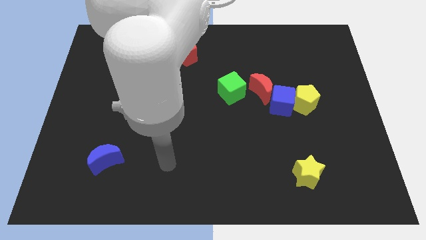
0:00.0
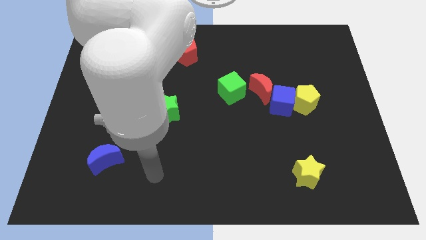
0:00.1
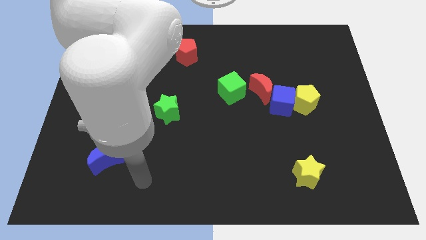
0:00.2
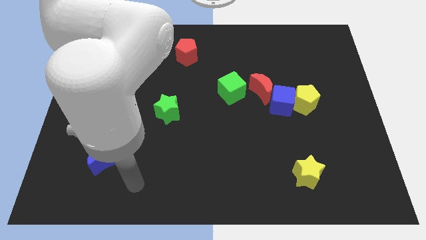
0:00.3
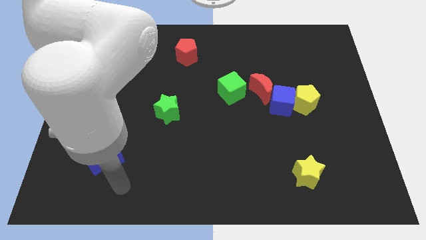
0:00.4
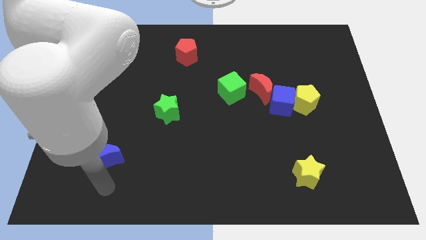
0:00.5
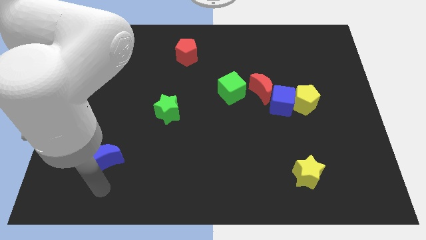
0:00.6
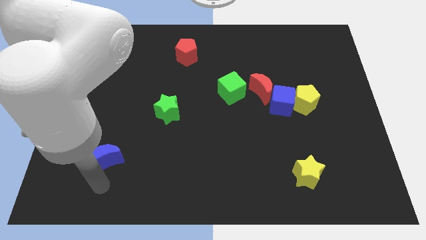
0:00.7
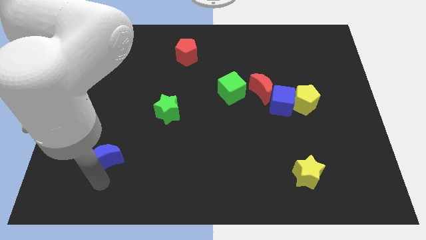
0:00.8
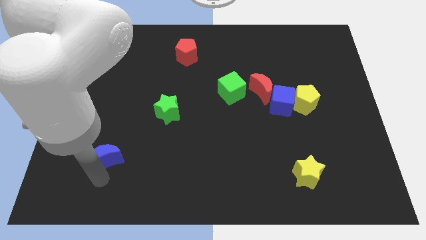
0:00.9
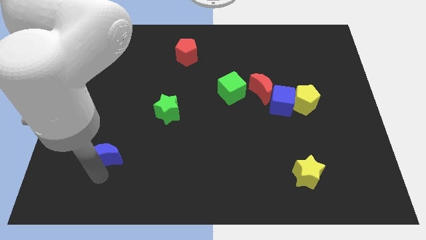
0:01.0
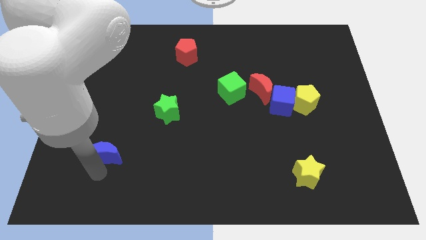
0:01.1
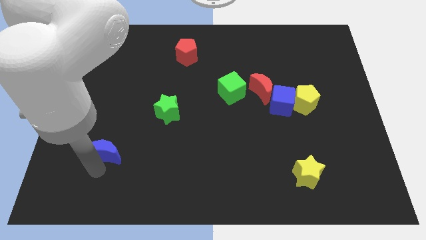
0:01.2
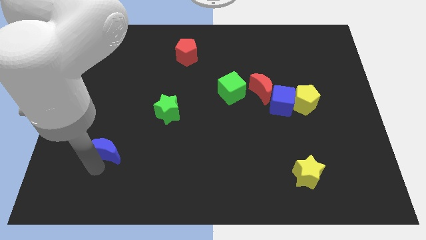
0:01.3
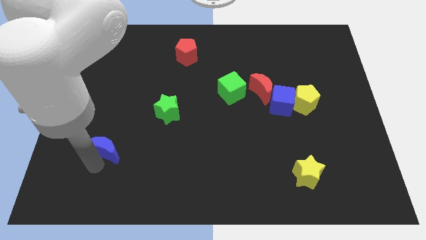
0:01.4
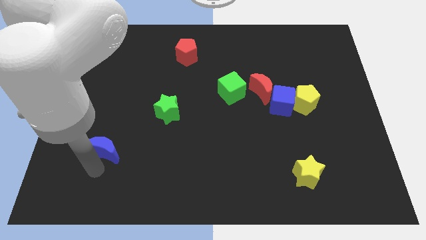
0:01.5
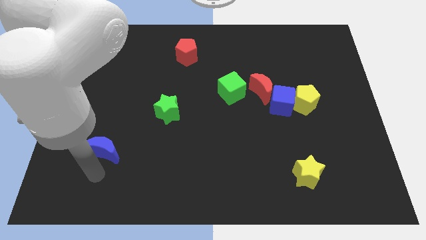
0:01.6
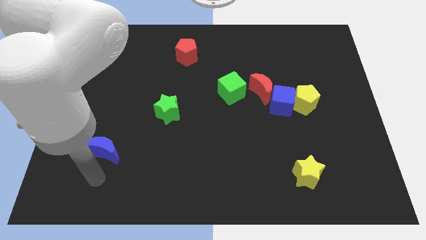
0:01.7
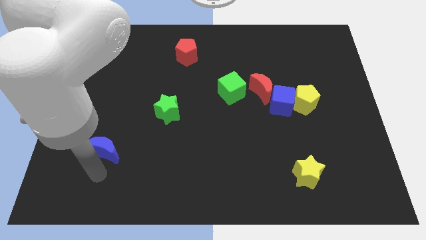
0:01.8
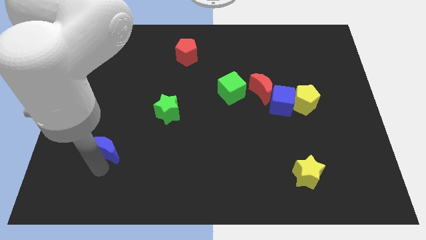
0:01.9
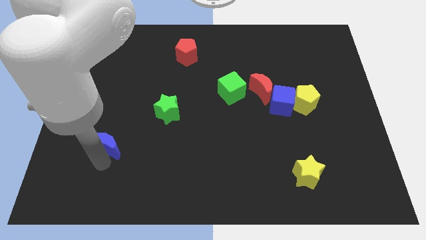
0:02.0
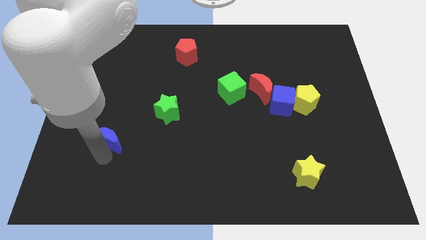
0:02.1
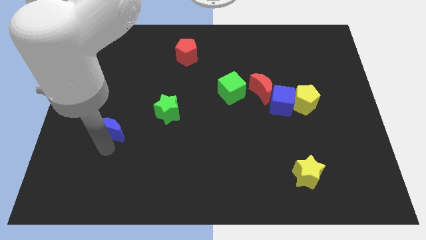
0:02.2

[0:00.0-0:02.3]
move the blue moon a little upwards

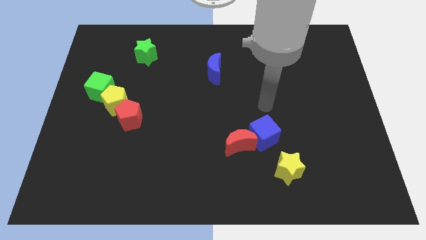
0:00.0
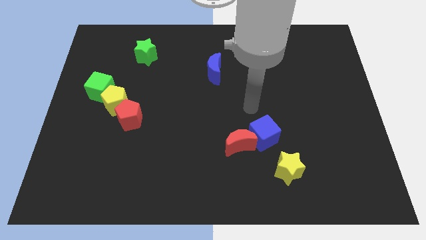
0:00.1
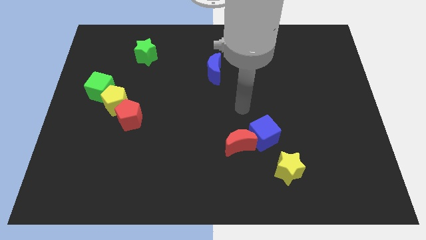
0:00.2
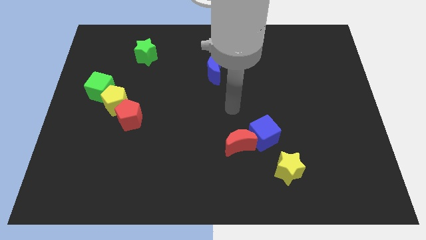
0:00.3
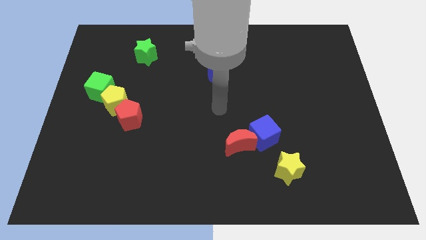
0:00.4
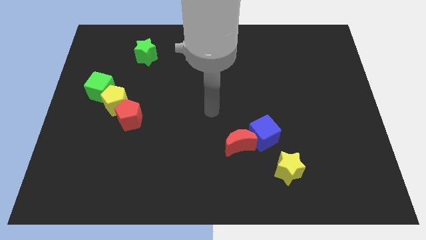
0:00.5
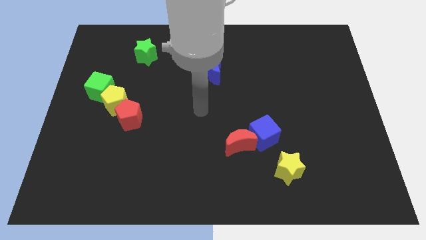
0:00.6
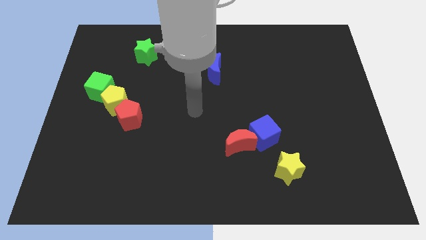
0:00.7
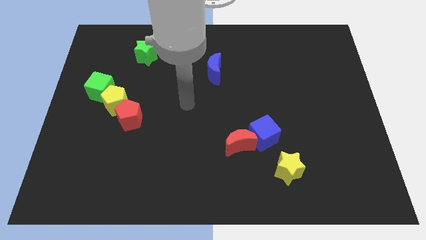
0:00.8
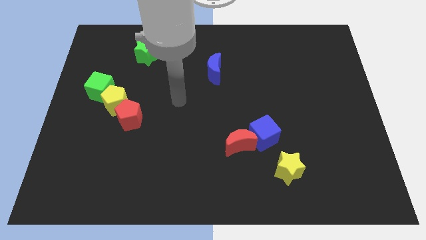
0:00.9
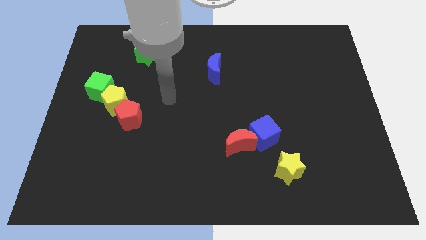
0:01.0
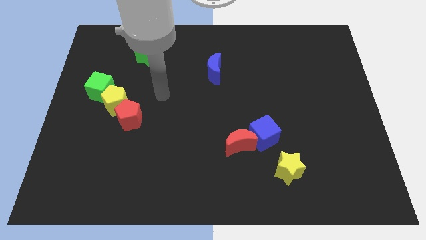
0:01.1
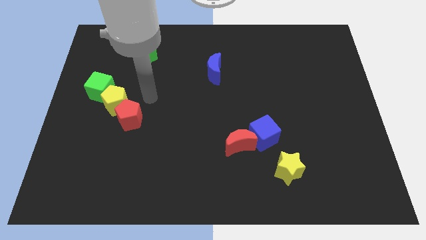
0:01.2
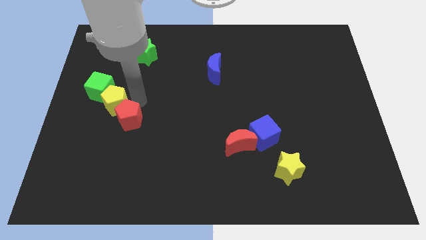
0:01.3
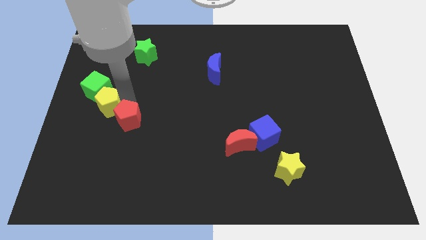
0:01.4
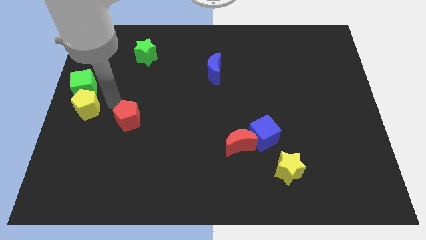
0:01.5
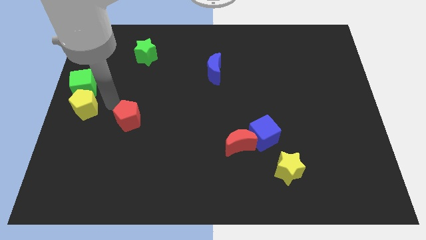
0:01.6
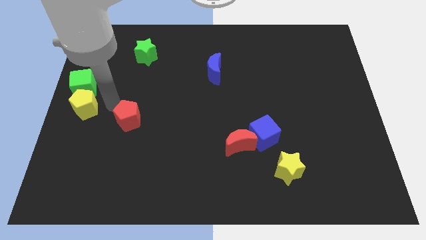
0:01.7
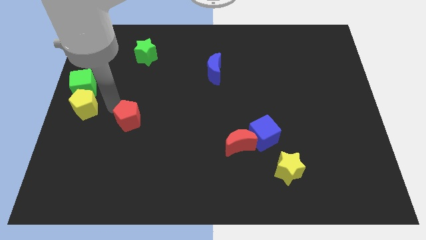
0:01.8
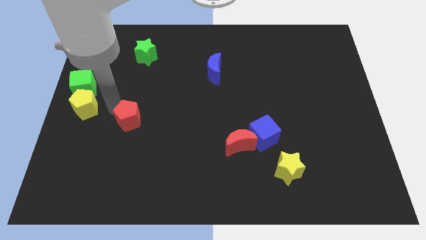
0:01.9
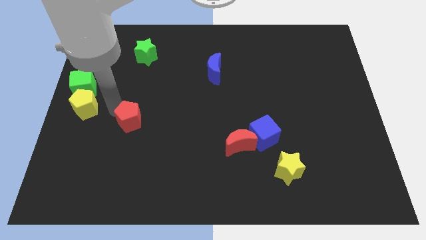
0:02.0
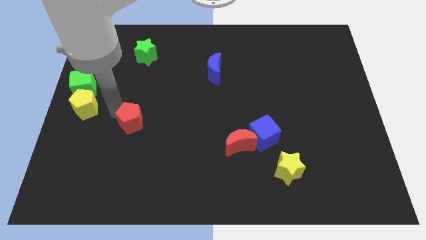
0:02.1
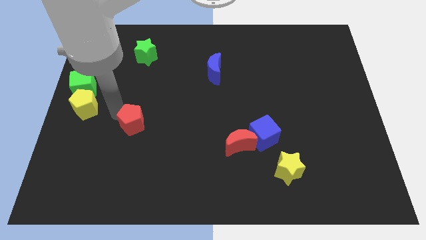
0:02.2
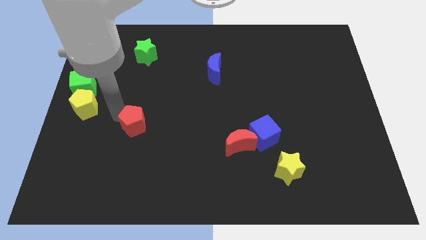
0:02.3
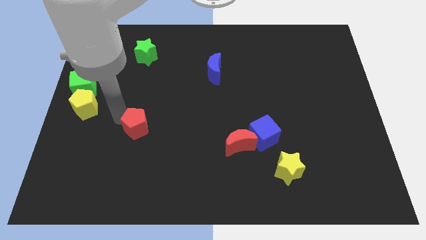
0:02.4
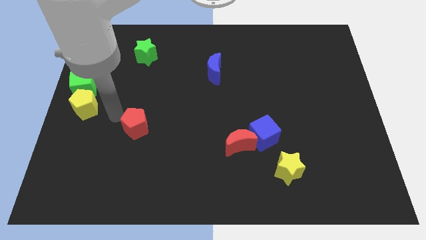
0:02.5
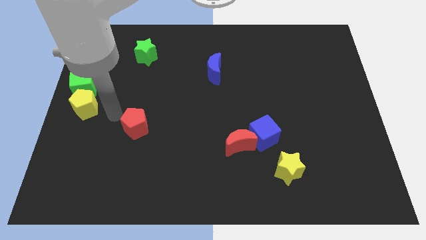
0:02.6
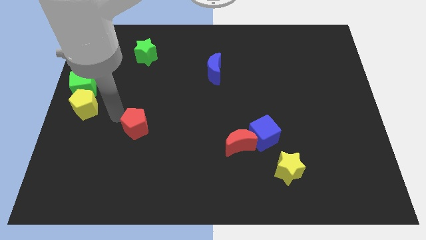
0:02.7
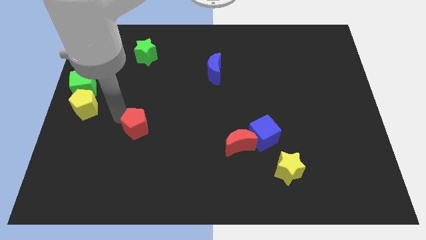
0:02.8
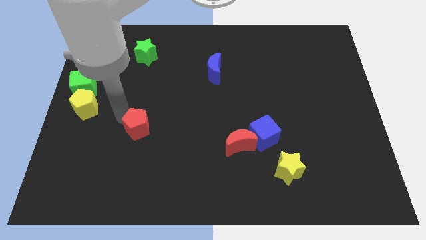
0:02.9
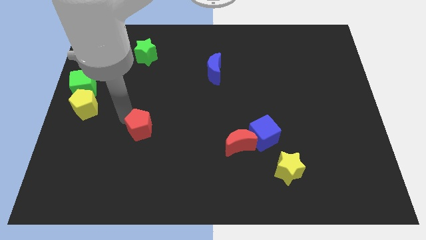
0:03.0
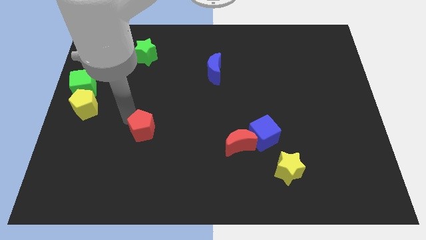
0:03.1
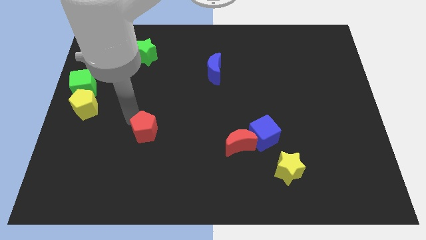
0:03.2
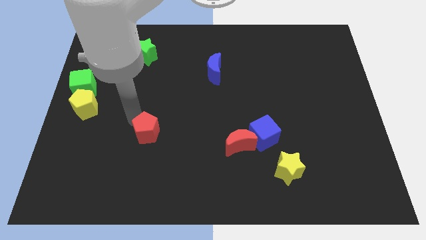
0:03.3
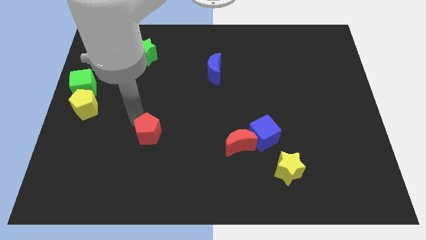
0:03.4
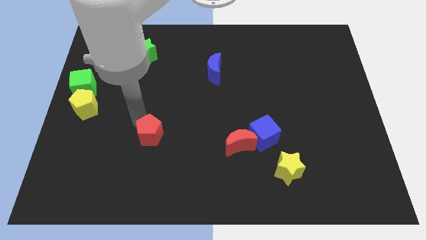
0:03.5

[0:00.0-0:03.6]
slightly push the red pentagon down and right

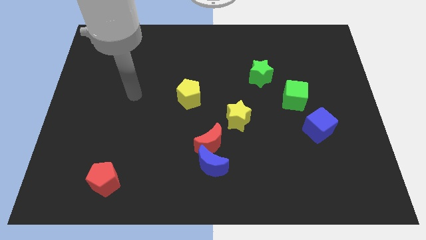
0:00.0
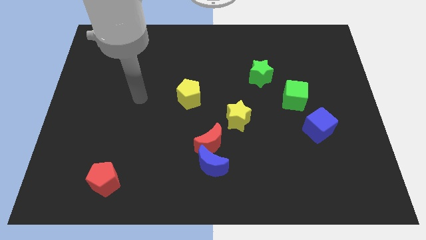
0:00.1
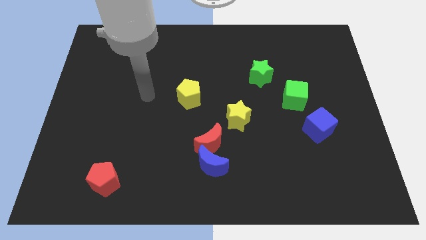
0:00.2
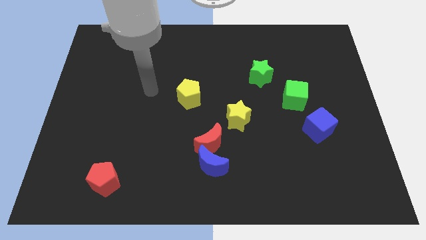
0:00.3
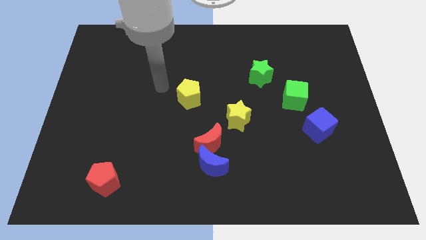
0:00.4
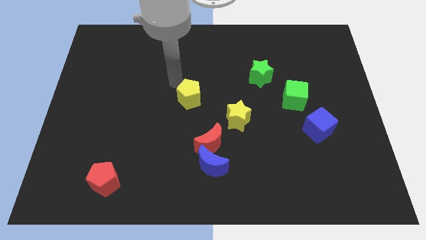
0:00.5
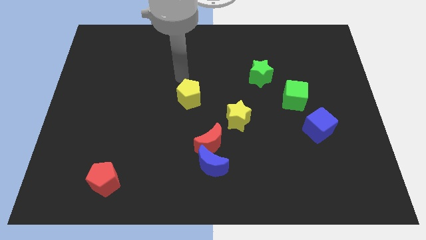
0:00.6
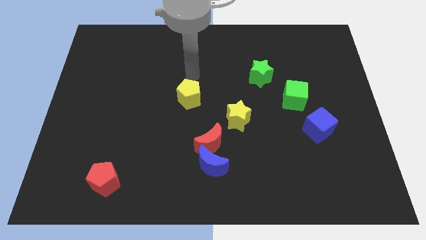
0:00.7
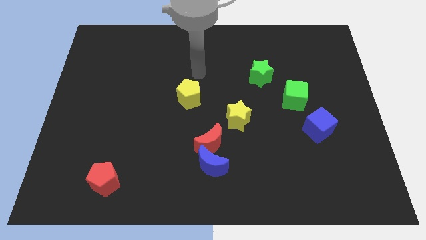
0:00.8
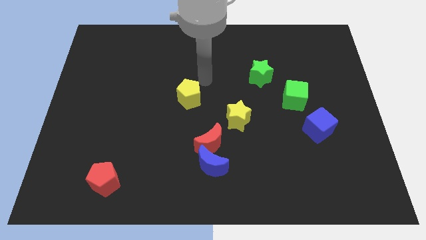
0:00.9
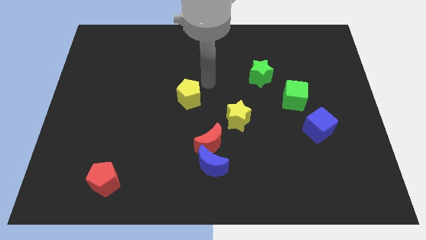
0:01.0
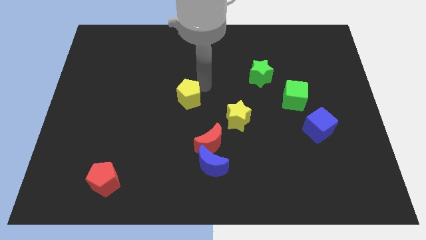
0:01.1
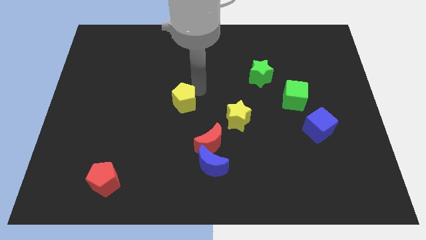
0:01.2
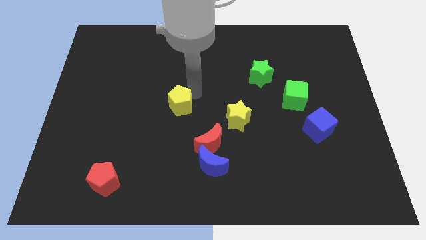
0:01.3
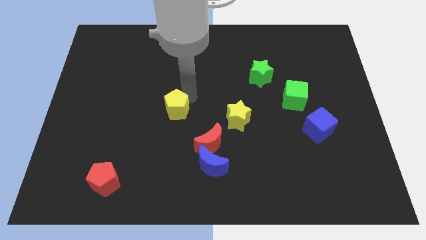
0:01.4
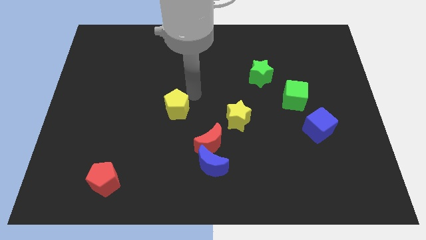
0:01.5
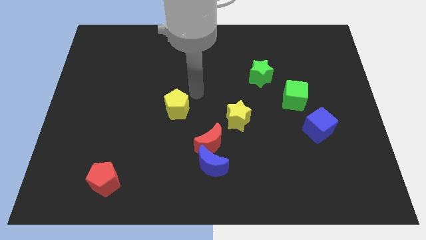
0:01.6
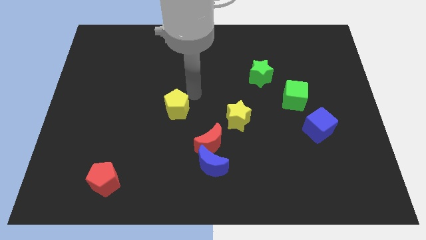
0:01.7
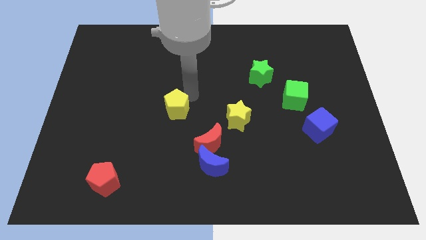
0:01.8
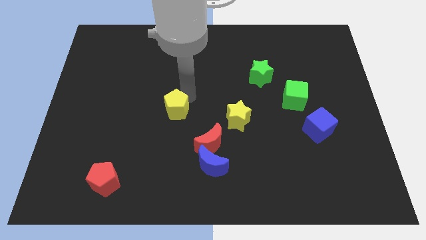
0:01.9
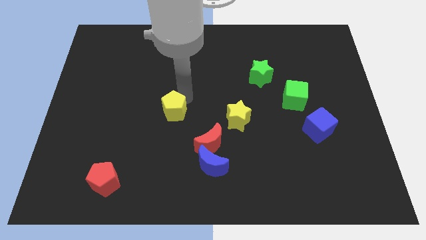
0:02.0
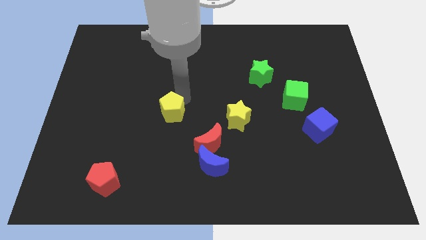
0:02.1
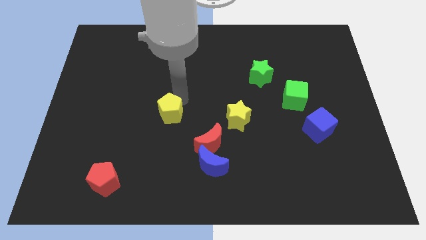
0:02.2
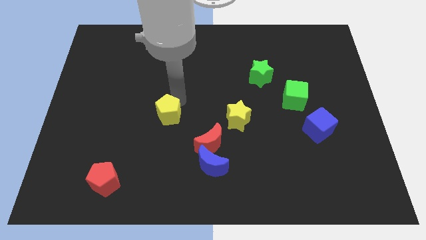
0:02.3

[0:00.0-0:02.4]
move the yellow pentagon a little bit diagonally down and to the left
